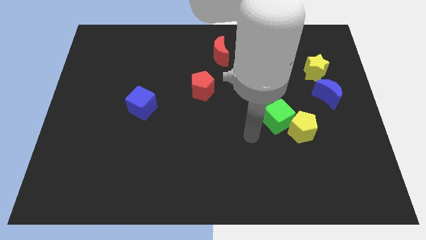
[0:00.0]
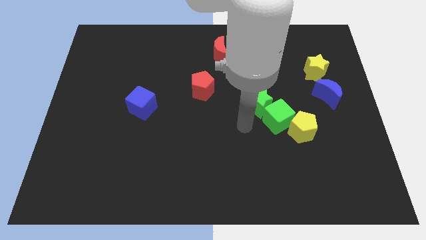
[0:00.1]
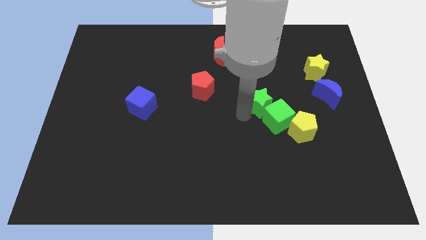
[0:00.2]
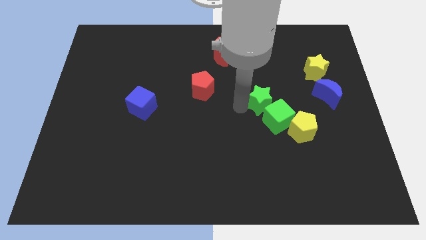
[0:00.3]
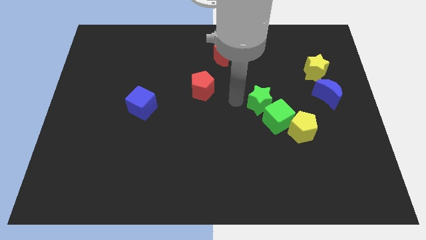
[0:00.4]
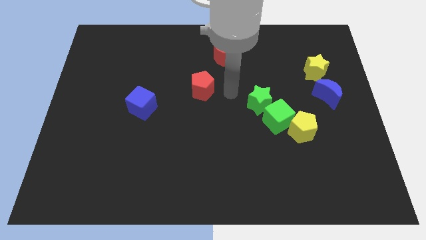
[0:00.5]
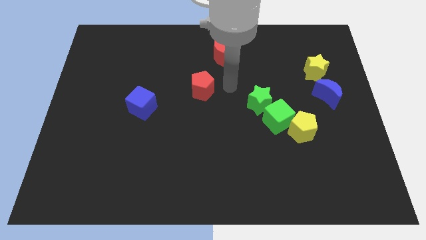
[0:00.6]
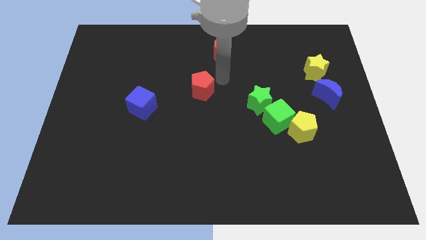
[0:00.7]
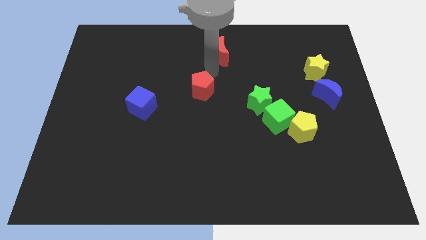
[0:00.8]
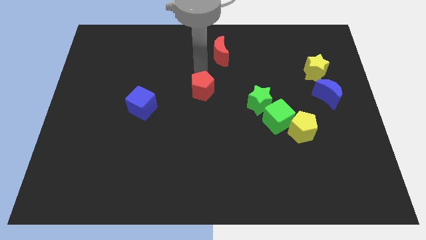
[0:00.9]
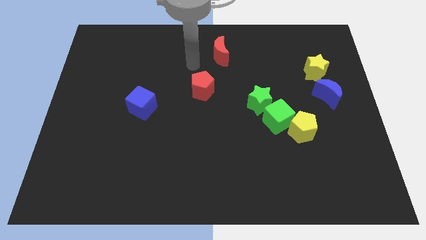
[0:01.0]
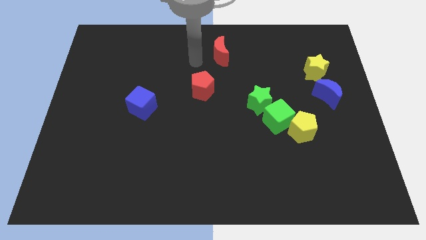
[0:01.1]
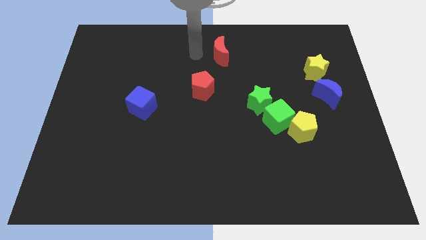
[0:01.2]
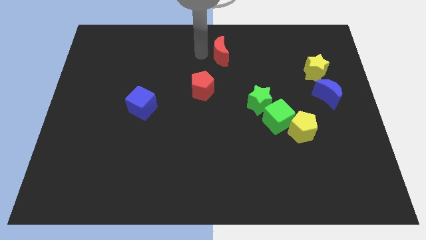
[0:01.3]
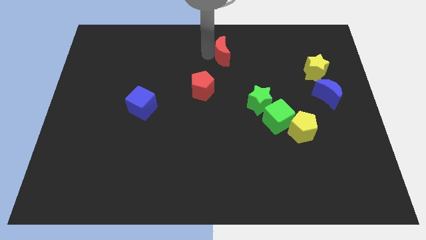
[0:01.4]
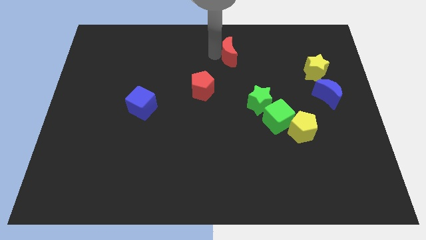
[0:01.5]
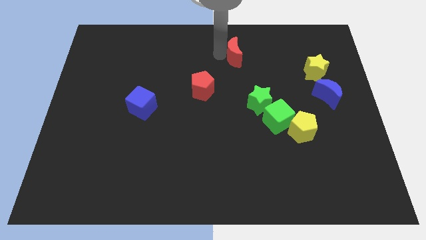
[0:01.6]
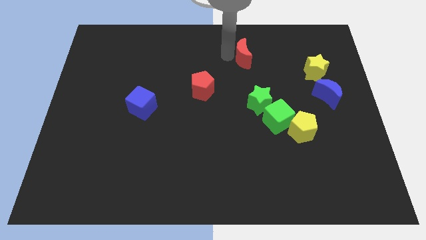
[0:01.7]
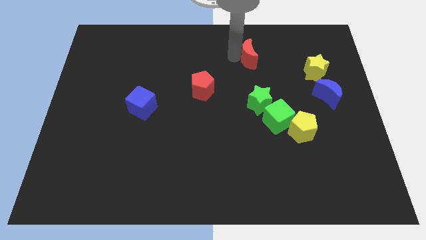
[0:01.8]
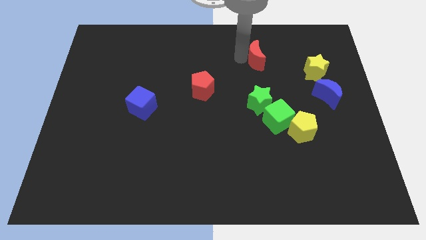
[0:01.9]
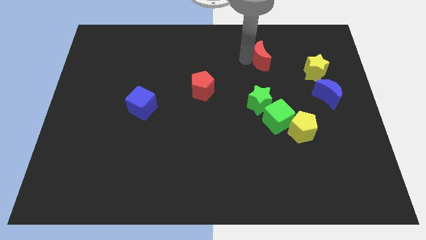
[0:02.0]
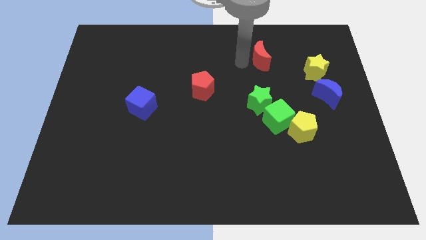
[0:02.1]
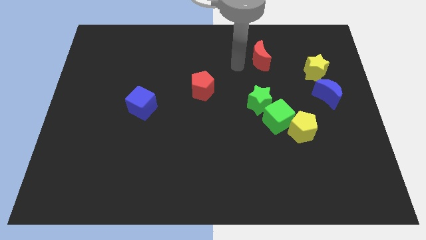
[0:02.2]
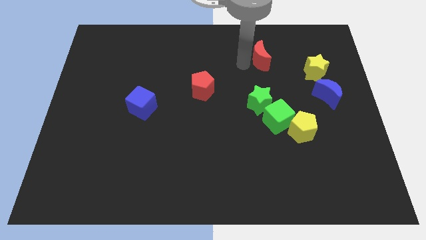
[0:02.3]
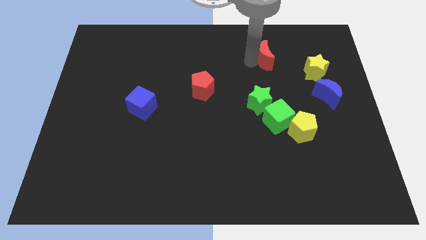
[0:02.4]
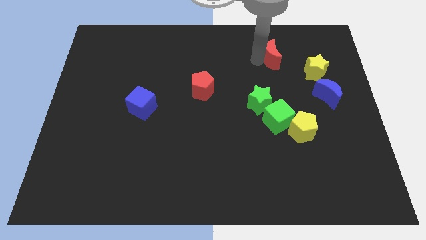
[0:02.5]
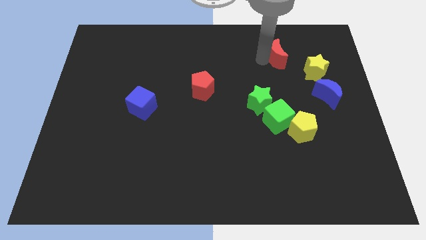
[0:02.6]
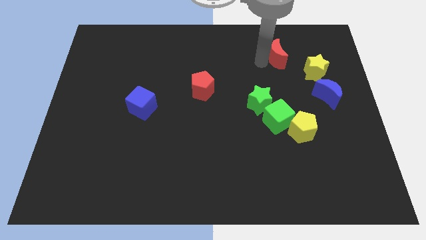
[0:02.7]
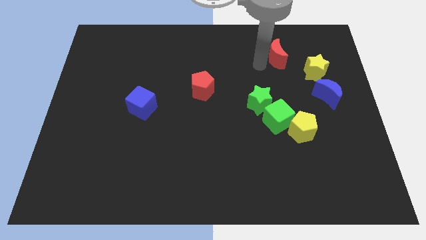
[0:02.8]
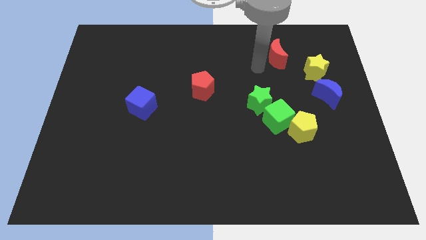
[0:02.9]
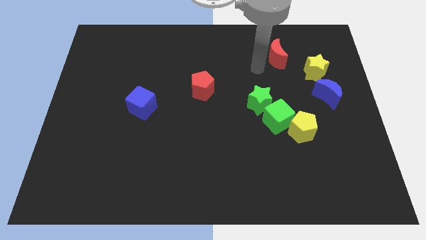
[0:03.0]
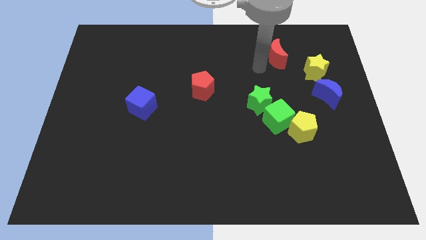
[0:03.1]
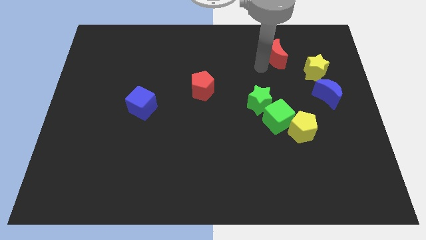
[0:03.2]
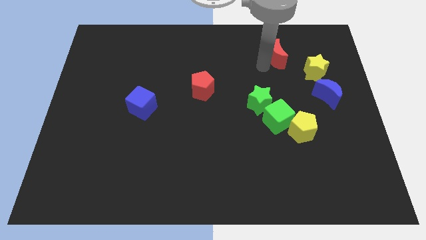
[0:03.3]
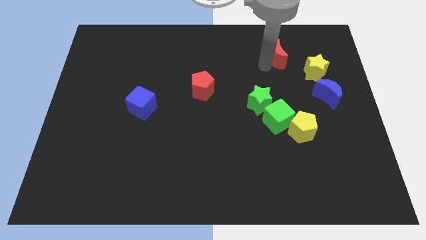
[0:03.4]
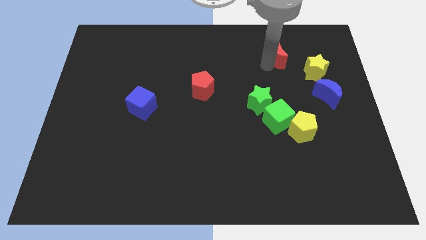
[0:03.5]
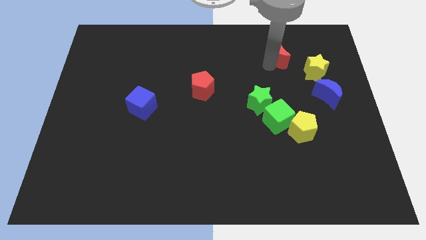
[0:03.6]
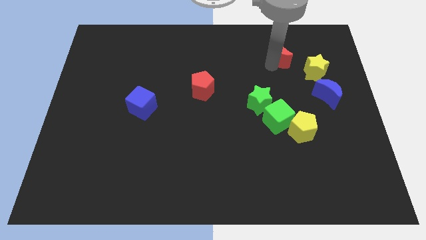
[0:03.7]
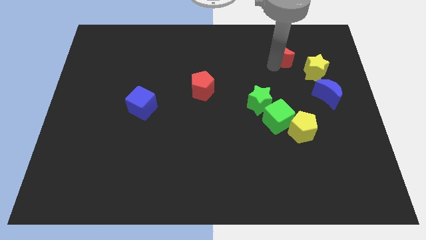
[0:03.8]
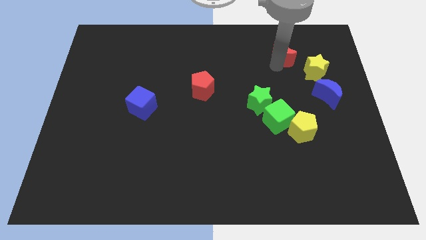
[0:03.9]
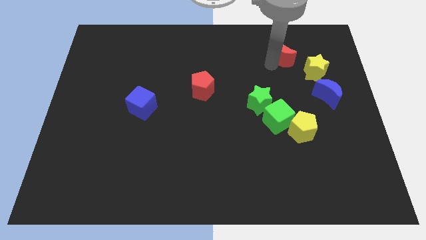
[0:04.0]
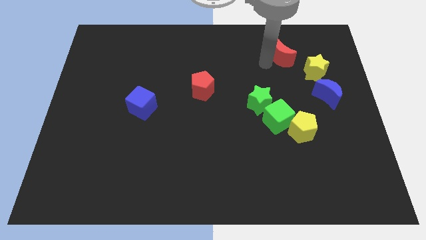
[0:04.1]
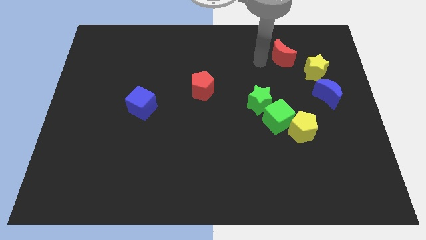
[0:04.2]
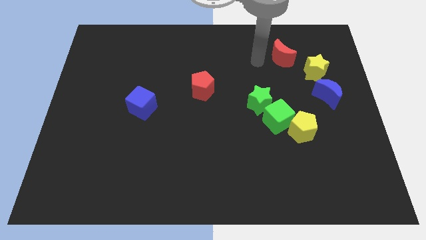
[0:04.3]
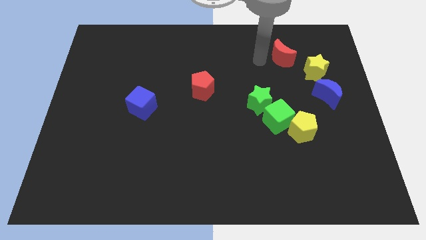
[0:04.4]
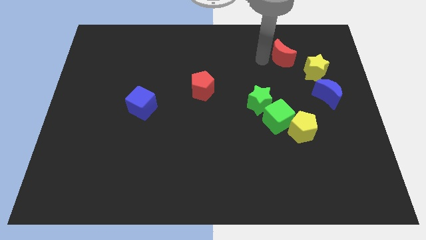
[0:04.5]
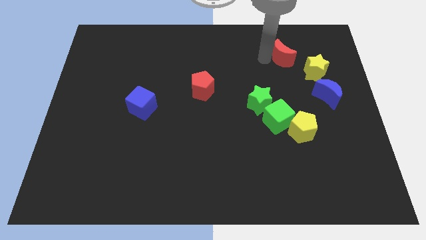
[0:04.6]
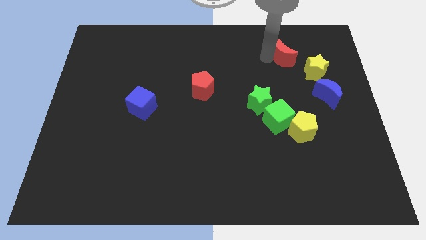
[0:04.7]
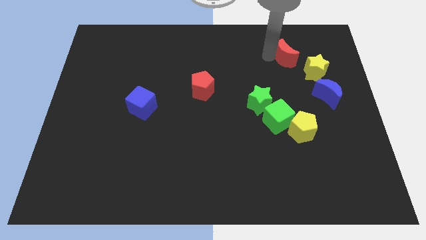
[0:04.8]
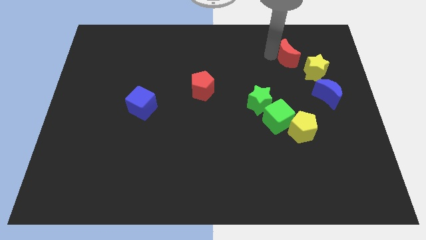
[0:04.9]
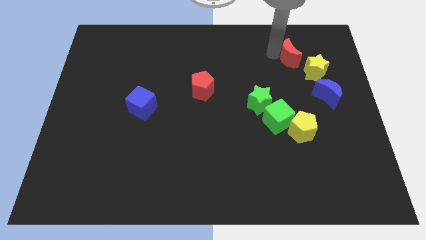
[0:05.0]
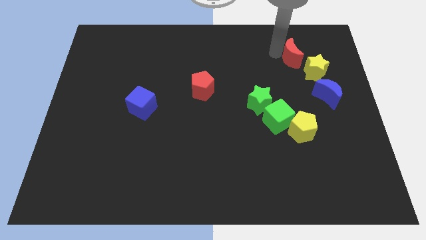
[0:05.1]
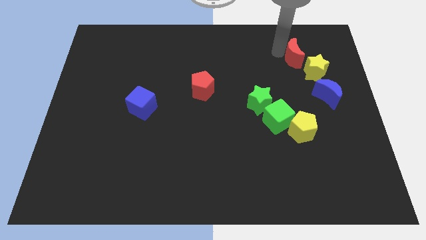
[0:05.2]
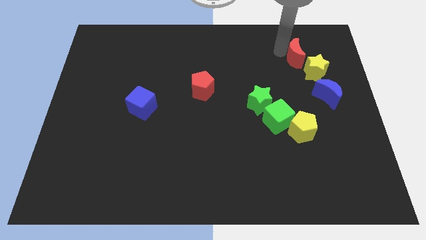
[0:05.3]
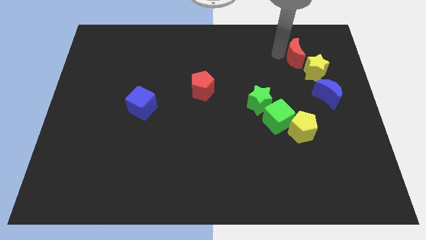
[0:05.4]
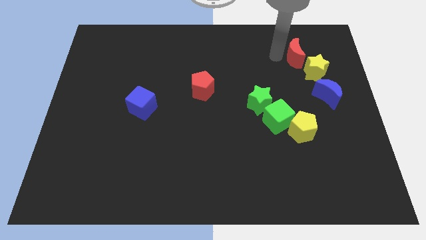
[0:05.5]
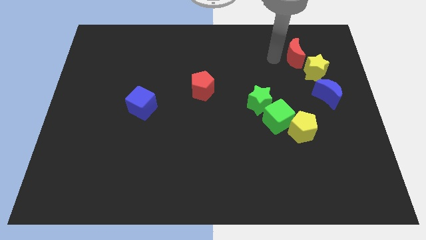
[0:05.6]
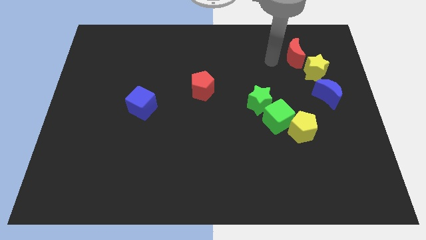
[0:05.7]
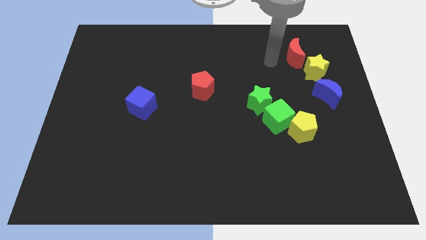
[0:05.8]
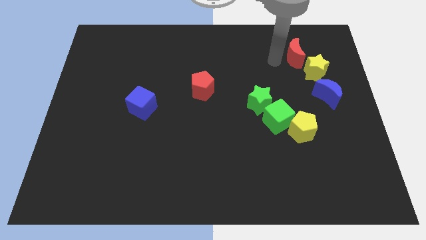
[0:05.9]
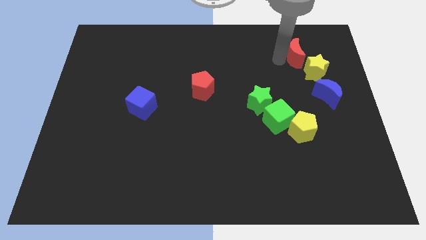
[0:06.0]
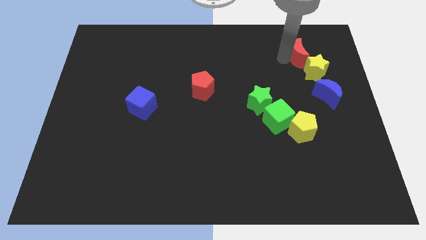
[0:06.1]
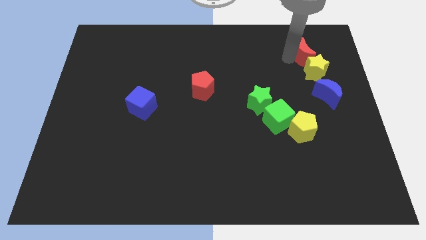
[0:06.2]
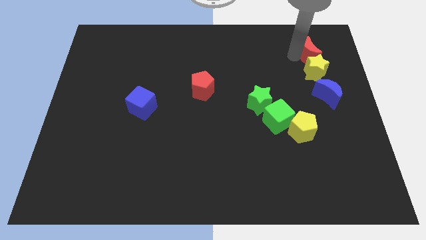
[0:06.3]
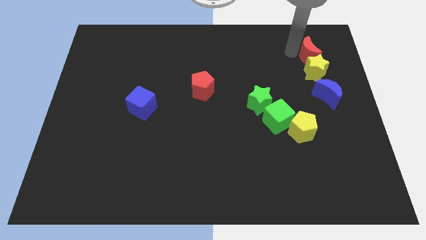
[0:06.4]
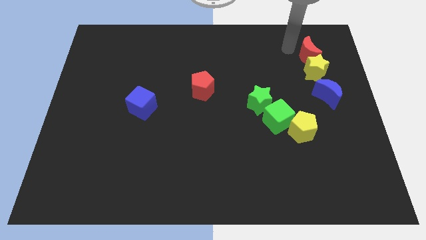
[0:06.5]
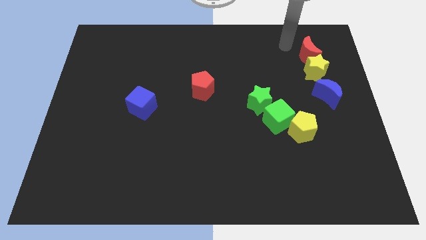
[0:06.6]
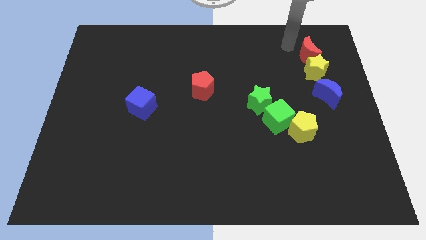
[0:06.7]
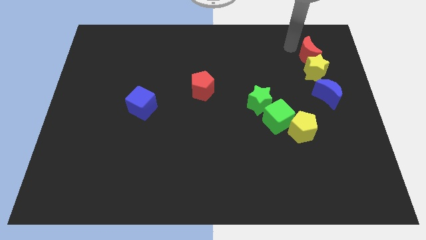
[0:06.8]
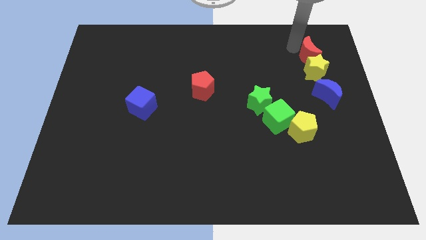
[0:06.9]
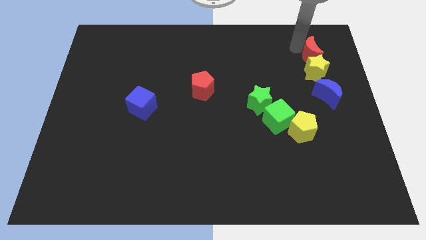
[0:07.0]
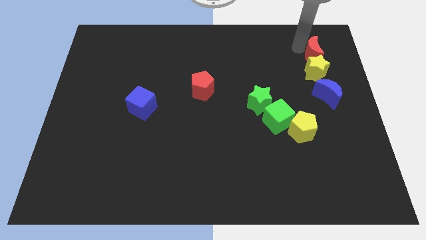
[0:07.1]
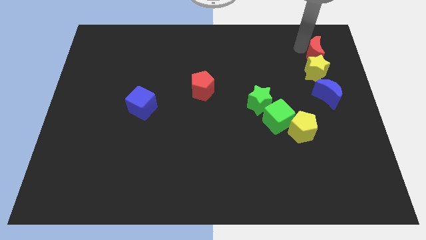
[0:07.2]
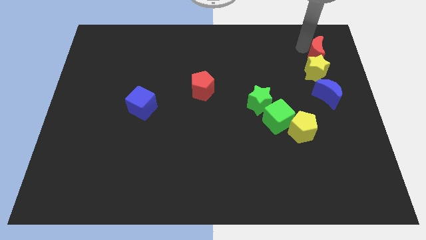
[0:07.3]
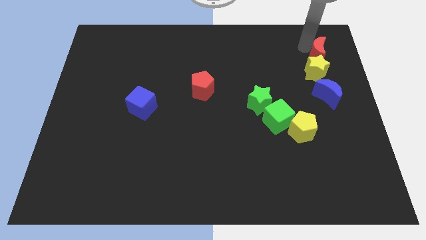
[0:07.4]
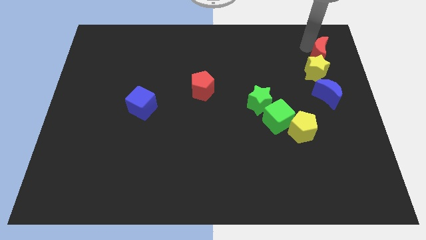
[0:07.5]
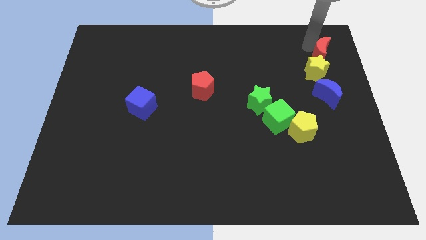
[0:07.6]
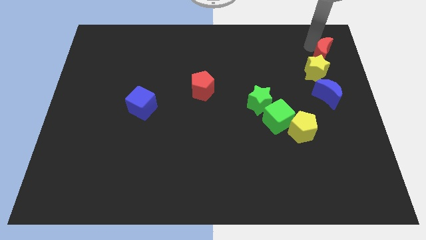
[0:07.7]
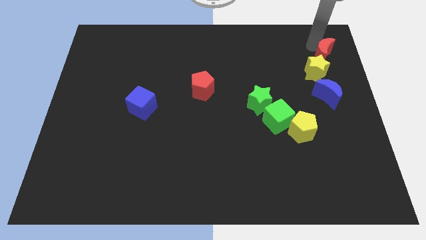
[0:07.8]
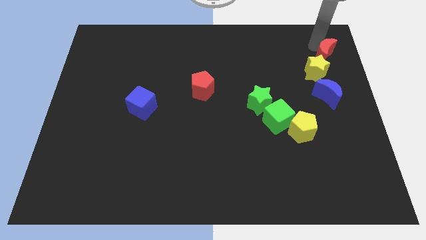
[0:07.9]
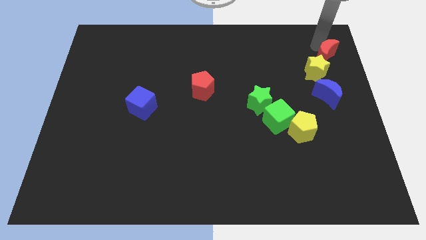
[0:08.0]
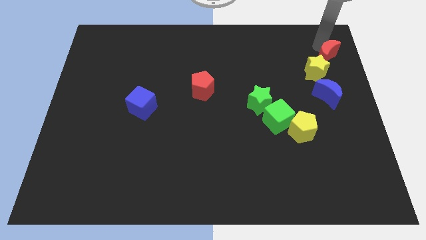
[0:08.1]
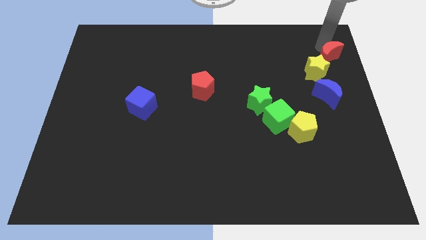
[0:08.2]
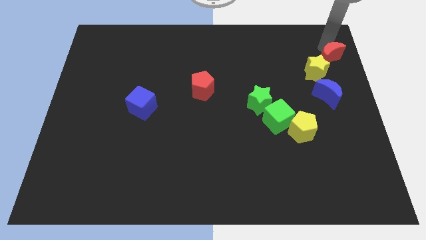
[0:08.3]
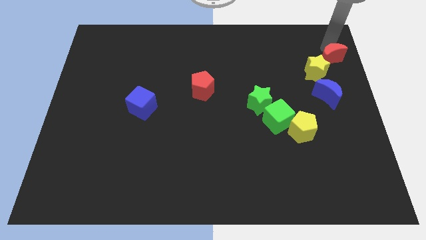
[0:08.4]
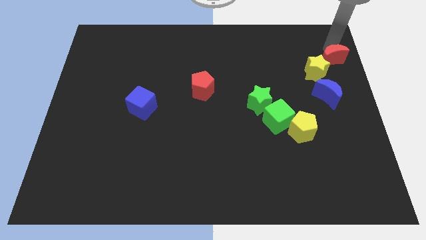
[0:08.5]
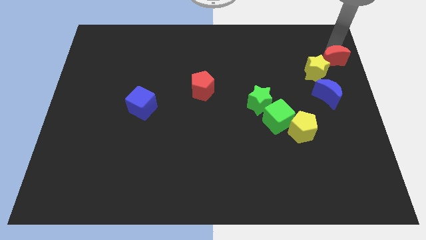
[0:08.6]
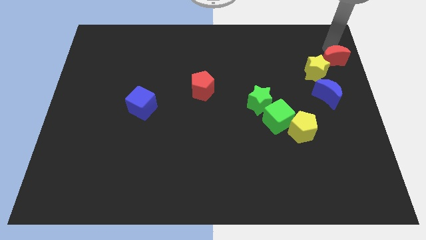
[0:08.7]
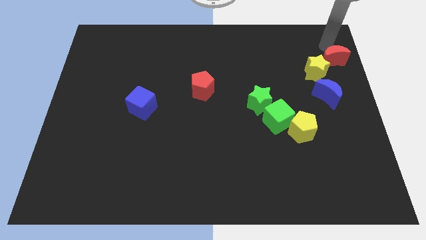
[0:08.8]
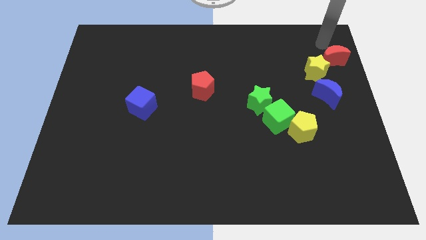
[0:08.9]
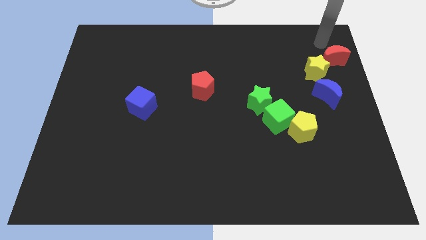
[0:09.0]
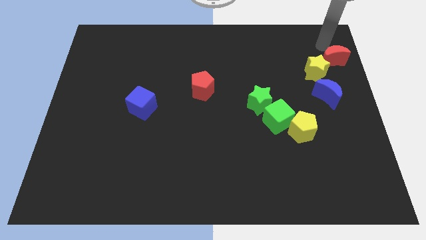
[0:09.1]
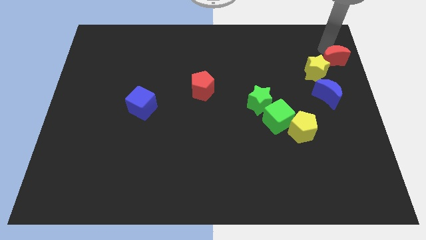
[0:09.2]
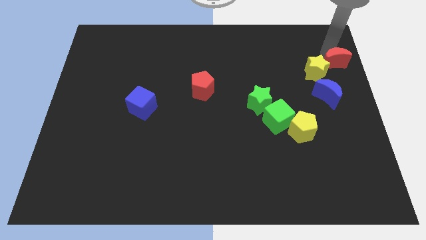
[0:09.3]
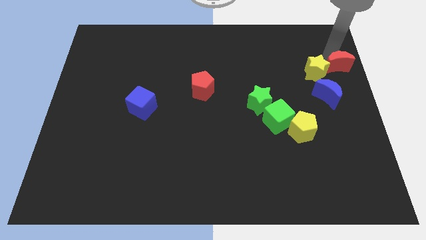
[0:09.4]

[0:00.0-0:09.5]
move the red moon to the center right
